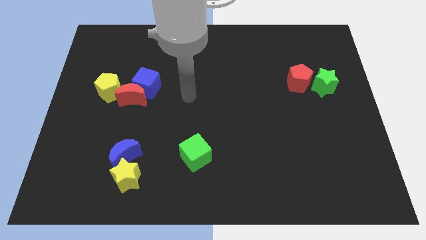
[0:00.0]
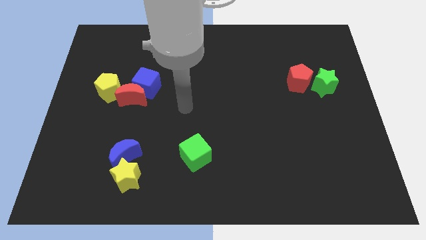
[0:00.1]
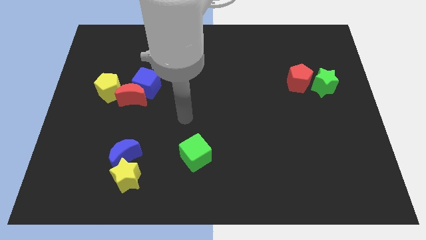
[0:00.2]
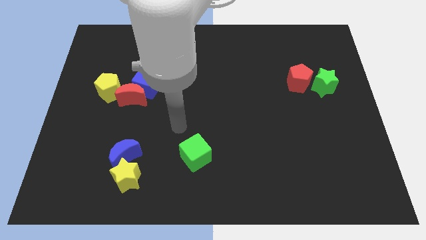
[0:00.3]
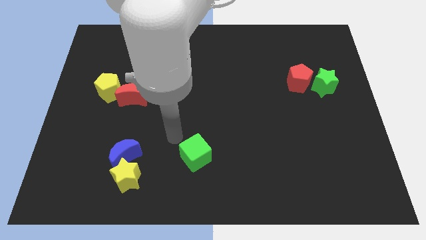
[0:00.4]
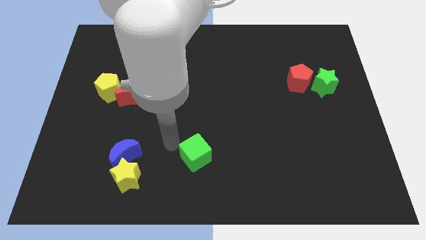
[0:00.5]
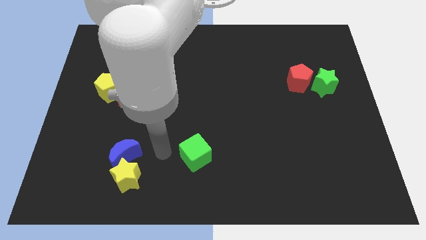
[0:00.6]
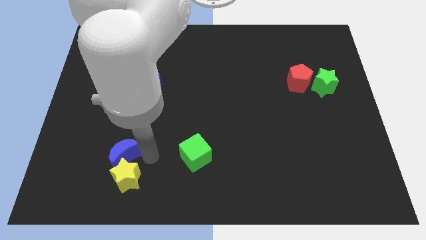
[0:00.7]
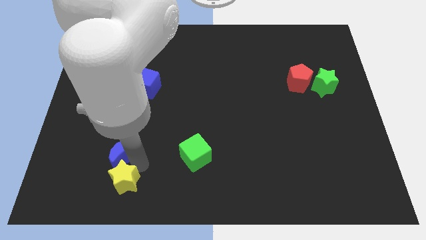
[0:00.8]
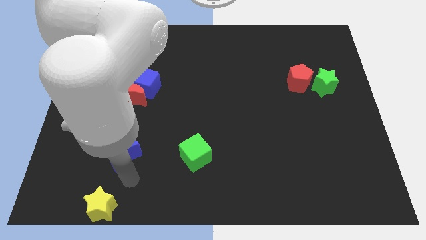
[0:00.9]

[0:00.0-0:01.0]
move the blue moon away from the yellow star

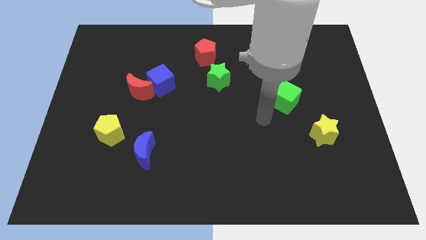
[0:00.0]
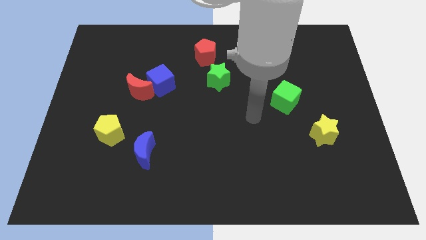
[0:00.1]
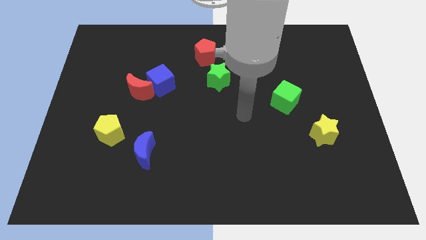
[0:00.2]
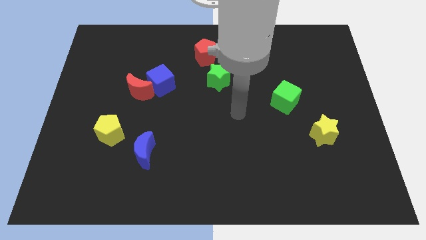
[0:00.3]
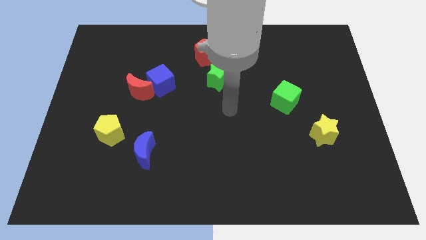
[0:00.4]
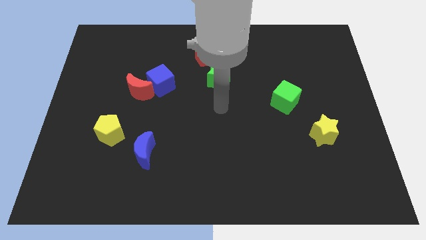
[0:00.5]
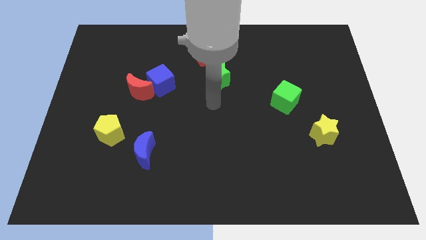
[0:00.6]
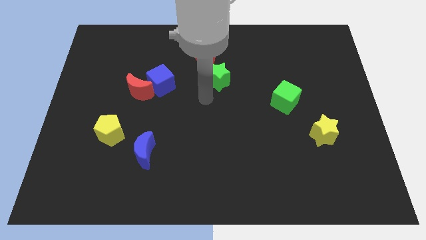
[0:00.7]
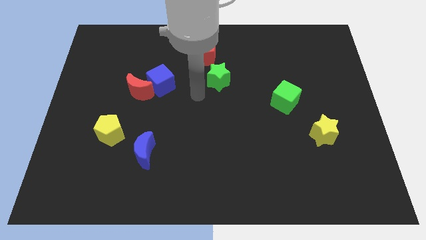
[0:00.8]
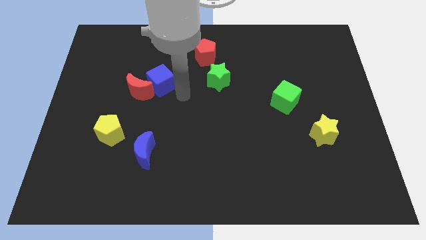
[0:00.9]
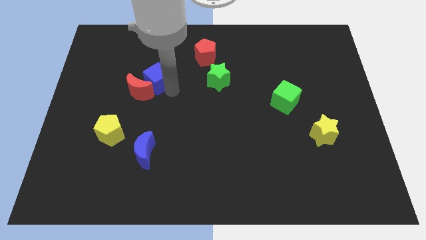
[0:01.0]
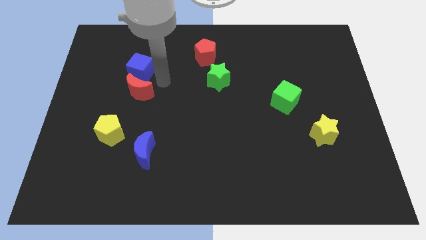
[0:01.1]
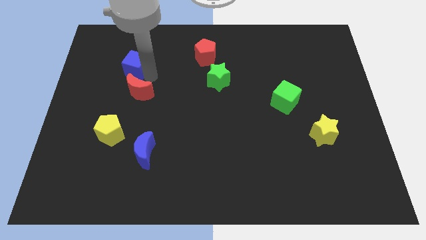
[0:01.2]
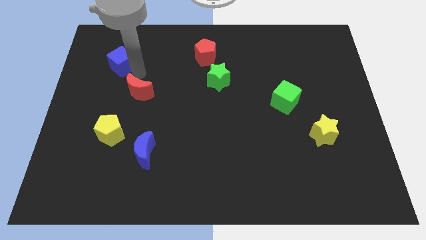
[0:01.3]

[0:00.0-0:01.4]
pull the red moon apart from the blue cube

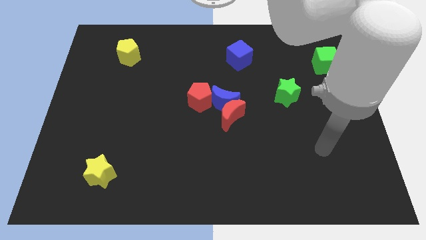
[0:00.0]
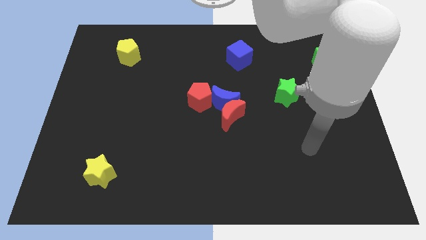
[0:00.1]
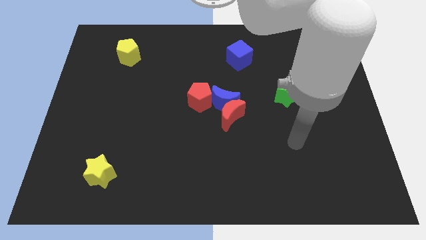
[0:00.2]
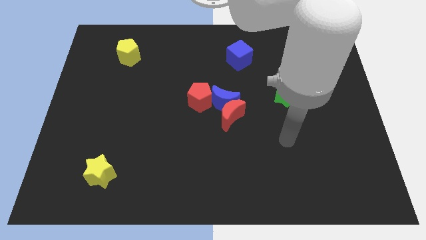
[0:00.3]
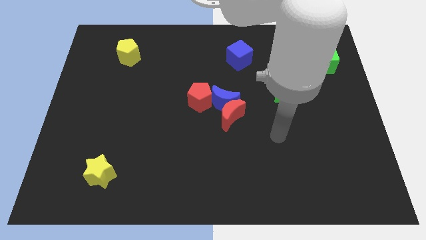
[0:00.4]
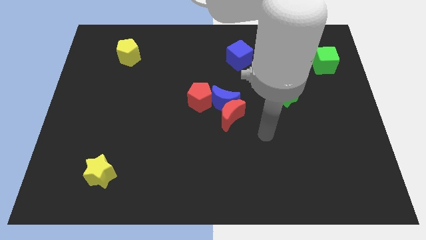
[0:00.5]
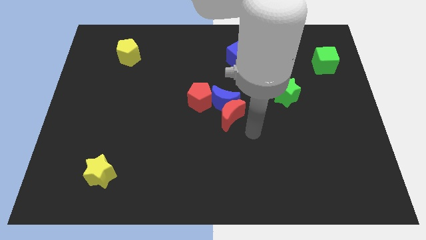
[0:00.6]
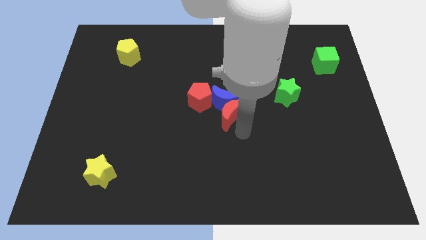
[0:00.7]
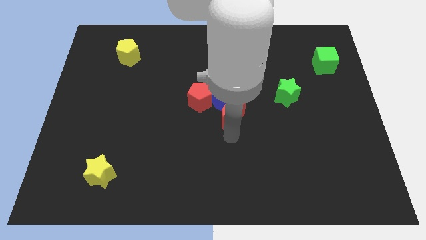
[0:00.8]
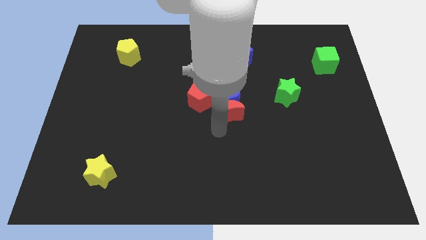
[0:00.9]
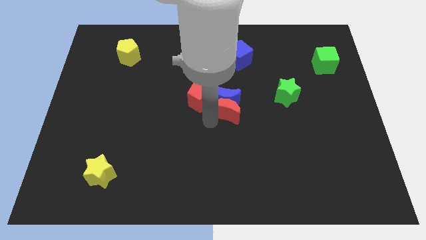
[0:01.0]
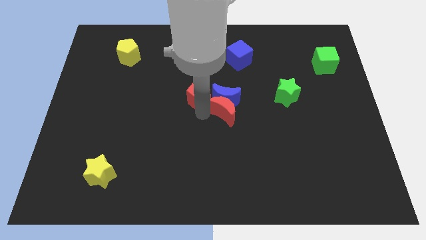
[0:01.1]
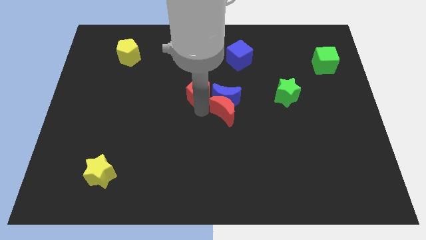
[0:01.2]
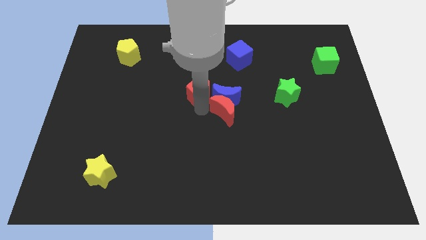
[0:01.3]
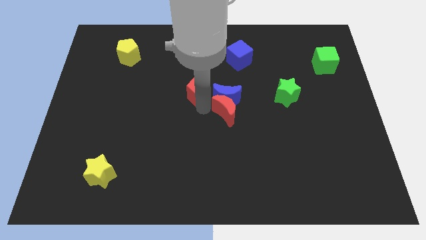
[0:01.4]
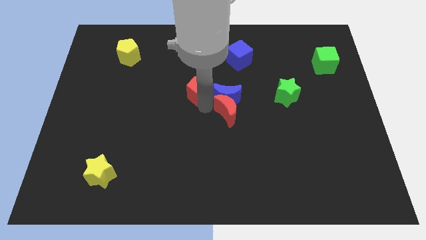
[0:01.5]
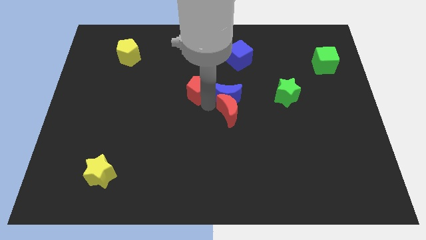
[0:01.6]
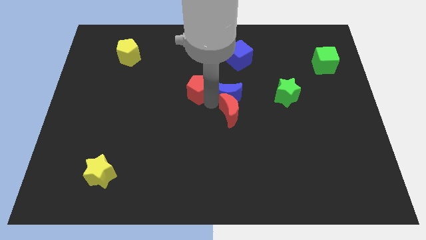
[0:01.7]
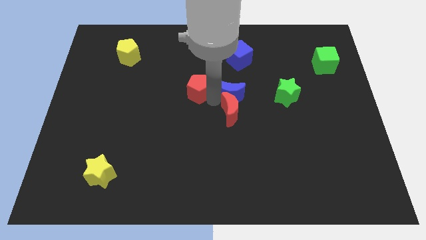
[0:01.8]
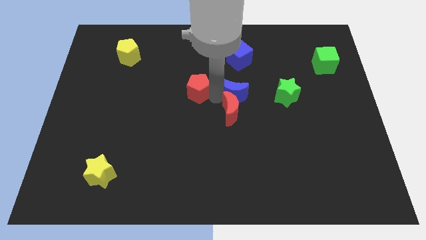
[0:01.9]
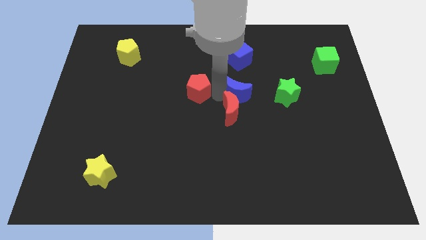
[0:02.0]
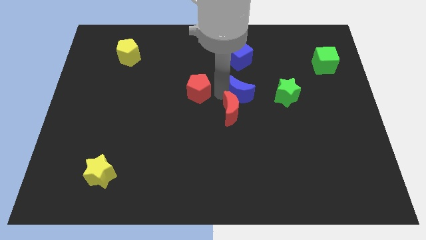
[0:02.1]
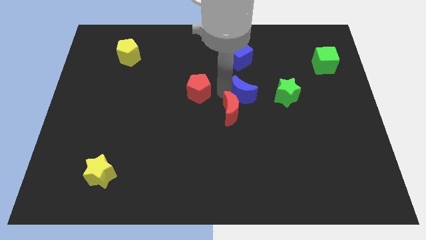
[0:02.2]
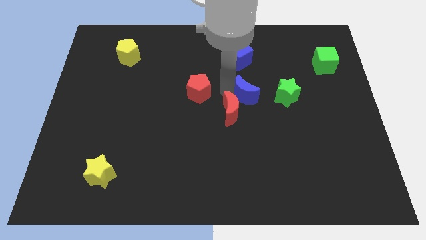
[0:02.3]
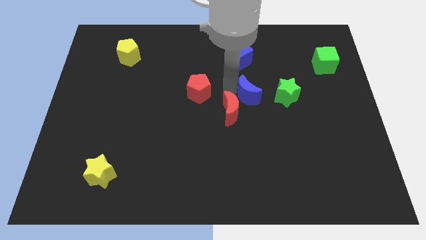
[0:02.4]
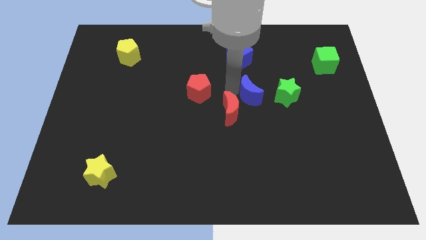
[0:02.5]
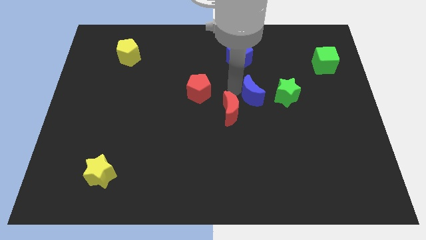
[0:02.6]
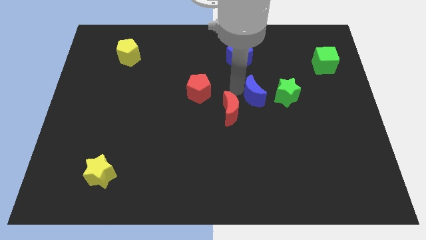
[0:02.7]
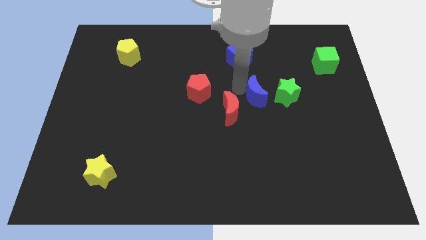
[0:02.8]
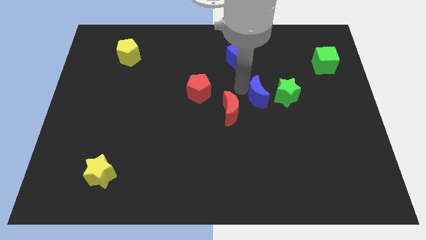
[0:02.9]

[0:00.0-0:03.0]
move the blue moon away from the red moon and red pentagon

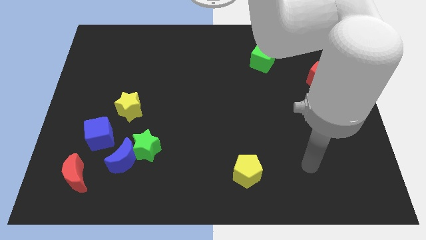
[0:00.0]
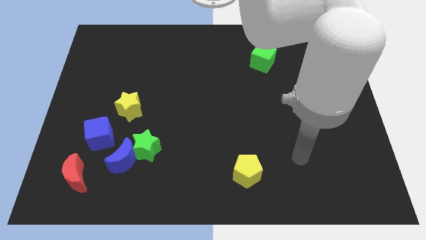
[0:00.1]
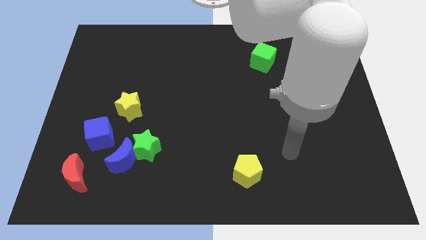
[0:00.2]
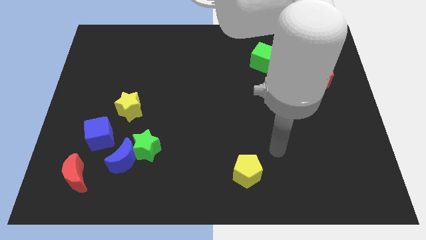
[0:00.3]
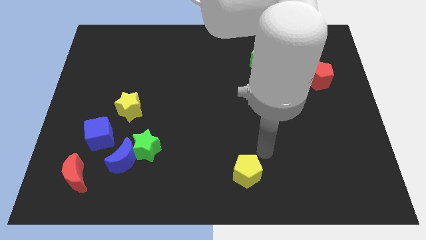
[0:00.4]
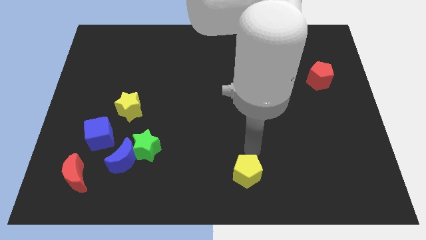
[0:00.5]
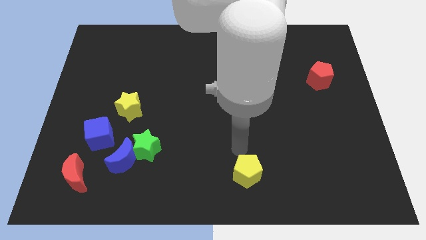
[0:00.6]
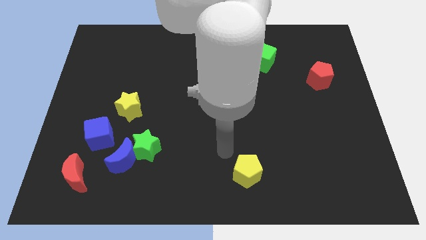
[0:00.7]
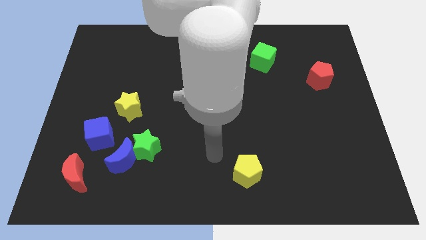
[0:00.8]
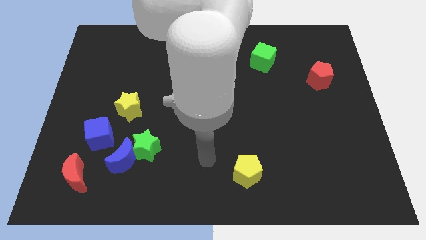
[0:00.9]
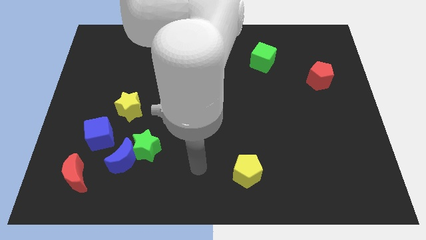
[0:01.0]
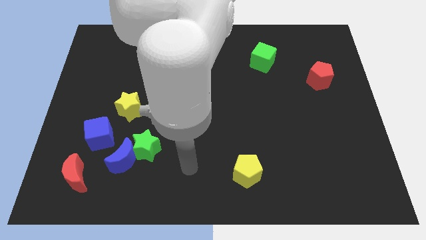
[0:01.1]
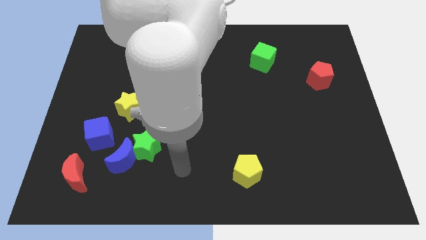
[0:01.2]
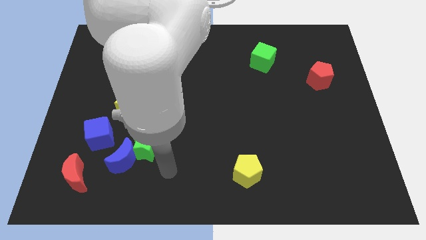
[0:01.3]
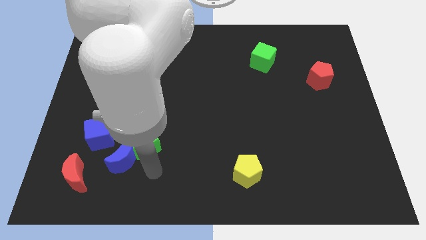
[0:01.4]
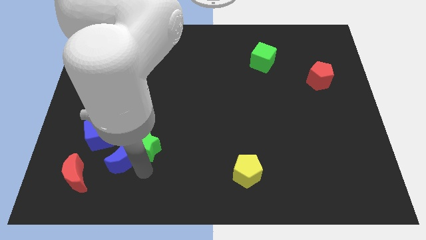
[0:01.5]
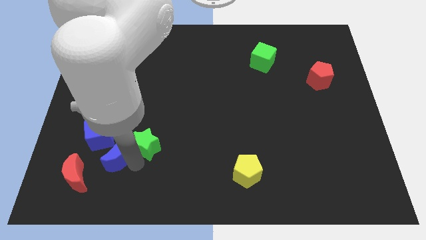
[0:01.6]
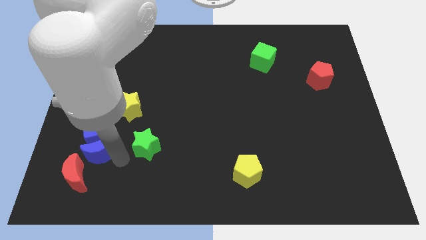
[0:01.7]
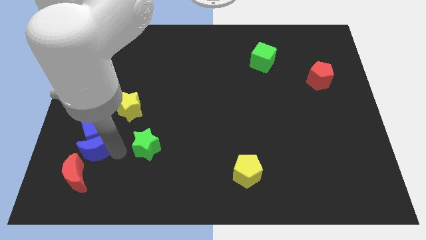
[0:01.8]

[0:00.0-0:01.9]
move the green star away from the blue moon

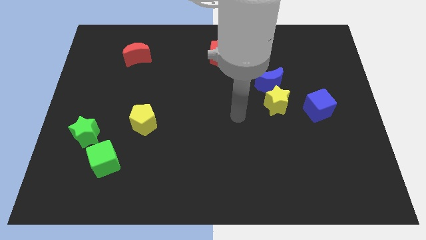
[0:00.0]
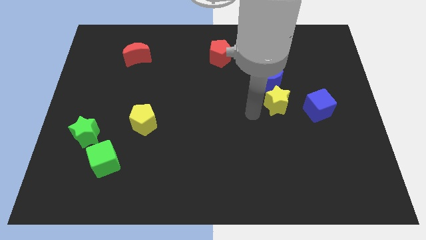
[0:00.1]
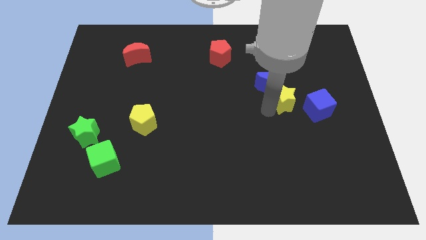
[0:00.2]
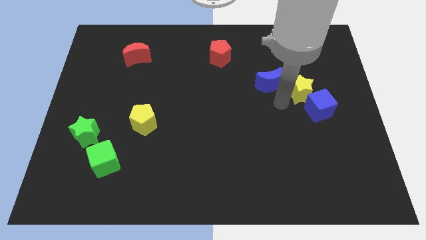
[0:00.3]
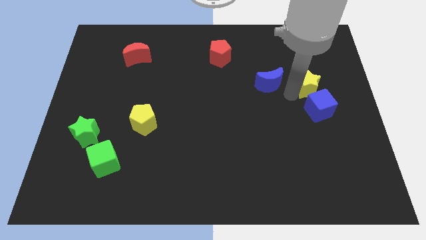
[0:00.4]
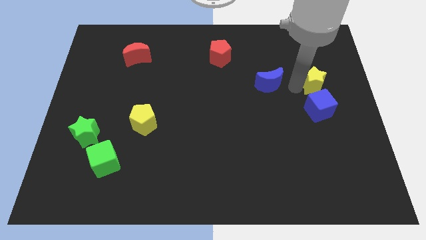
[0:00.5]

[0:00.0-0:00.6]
pull the blue moon apart from the yellow star

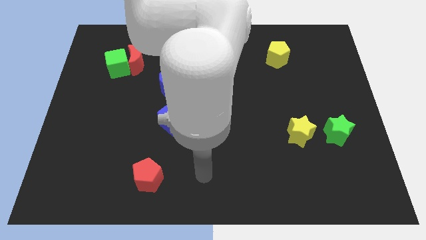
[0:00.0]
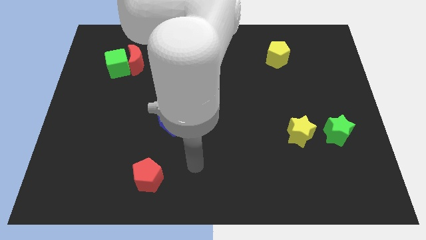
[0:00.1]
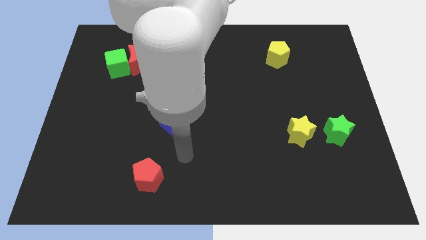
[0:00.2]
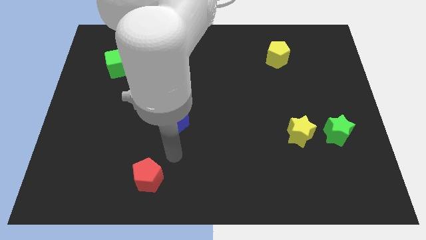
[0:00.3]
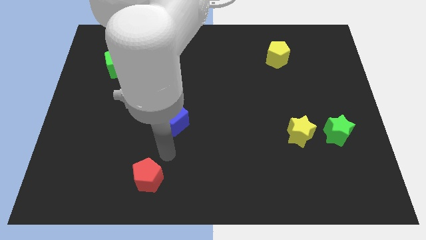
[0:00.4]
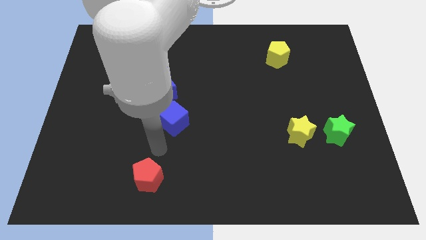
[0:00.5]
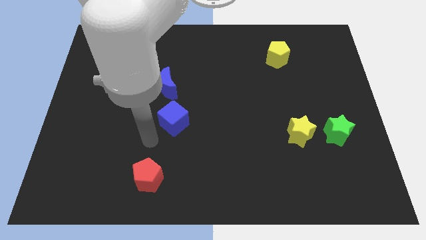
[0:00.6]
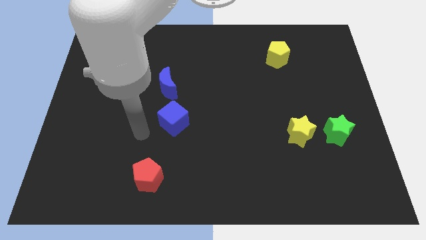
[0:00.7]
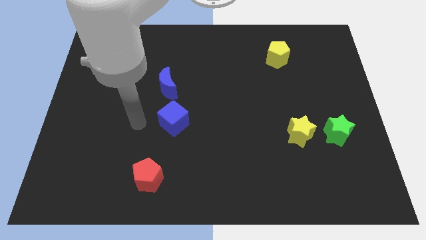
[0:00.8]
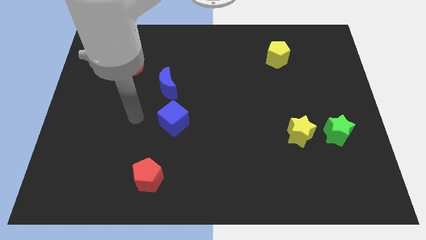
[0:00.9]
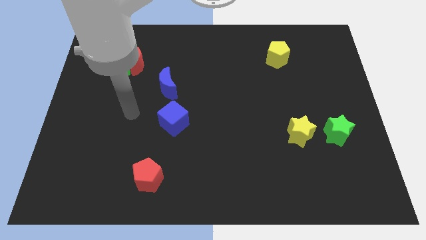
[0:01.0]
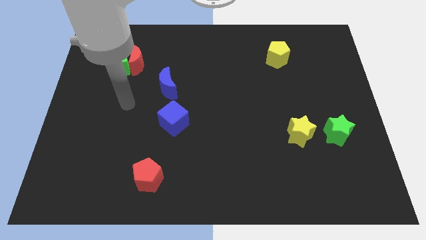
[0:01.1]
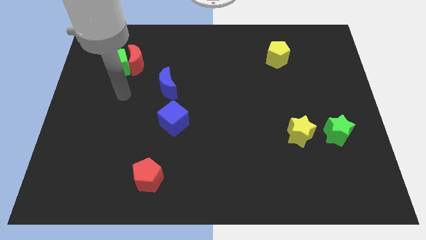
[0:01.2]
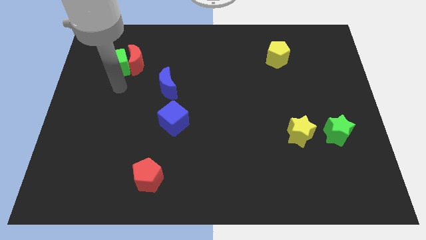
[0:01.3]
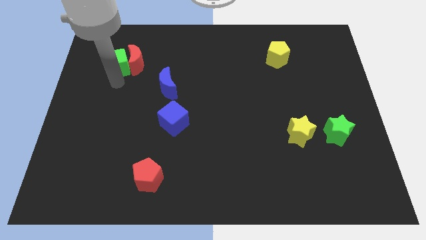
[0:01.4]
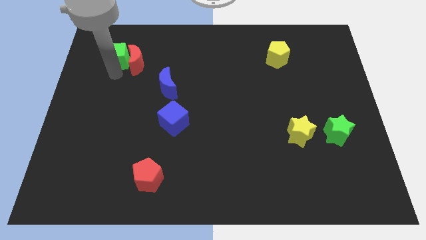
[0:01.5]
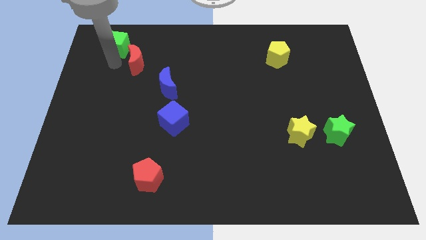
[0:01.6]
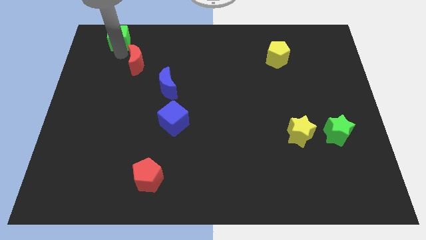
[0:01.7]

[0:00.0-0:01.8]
move the red moon away from the green cube
